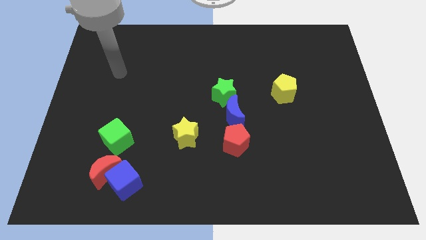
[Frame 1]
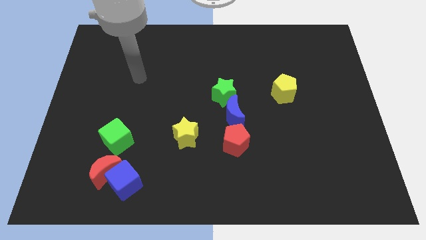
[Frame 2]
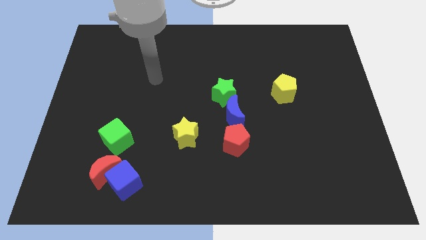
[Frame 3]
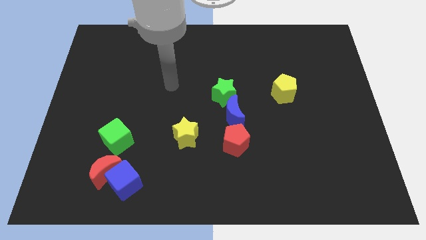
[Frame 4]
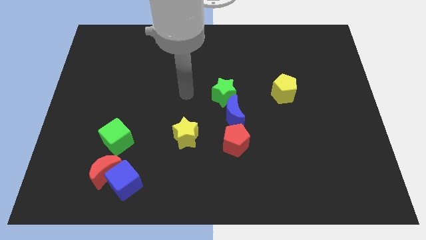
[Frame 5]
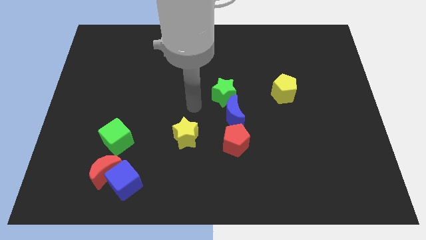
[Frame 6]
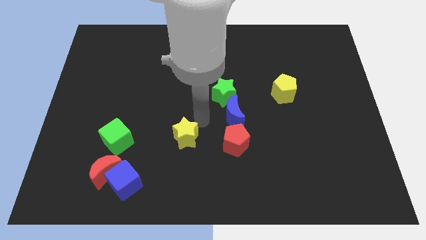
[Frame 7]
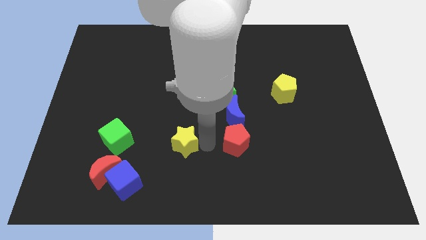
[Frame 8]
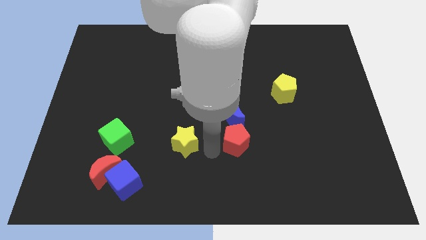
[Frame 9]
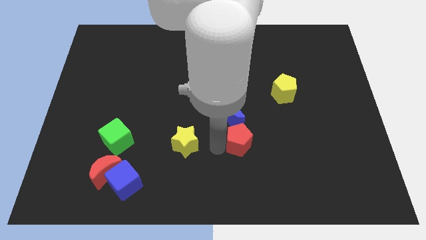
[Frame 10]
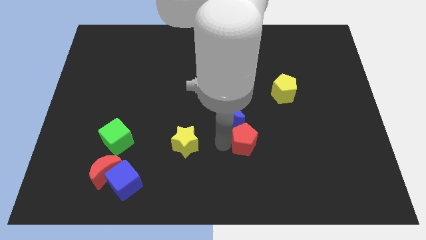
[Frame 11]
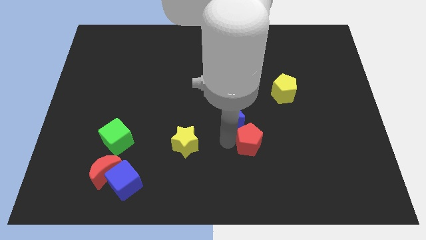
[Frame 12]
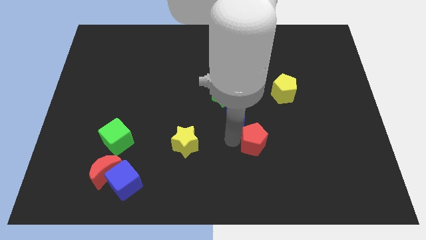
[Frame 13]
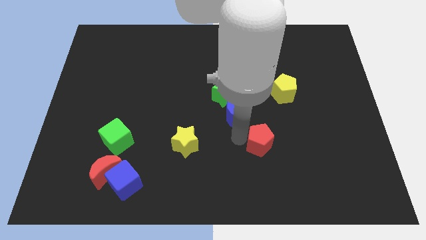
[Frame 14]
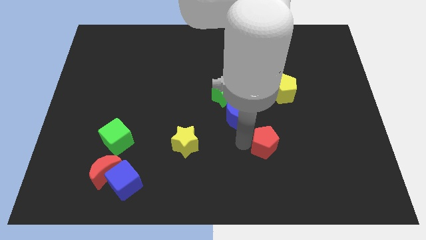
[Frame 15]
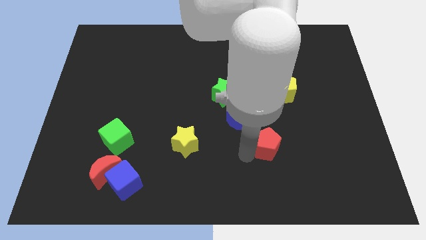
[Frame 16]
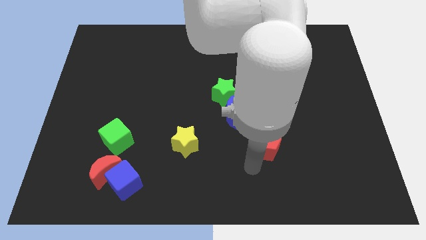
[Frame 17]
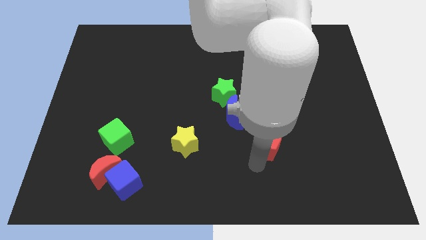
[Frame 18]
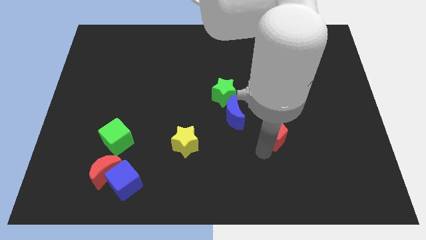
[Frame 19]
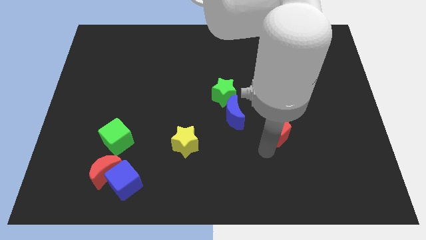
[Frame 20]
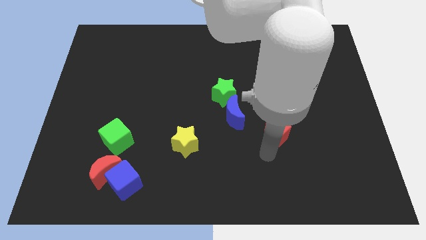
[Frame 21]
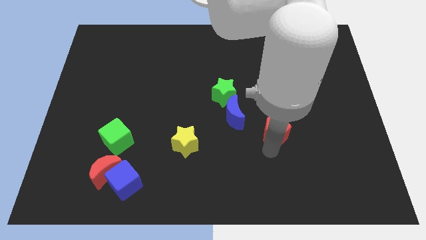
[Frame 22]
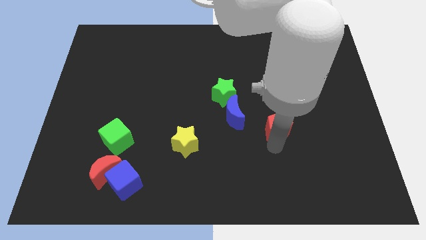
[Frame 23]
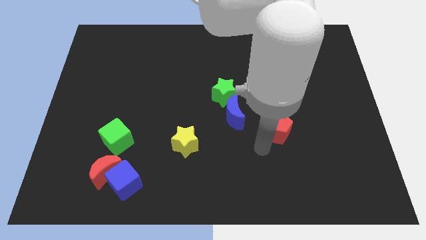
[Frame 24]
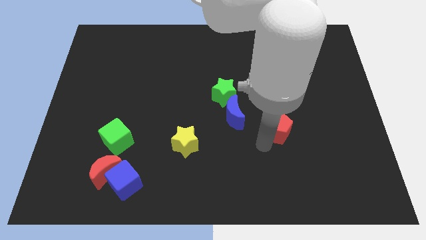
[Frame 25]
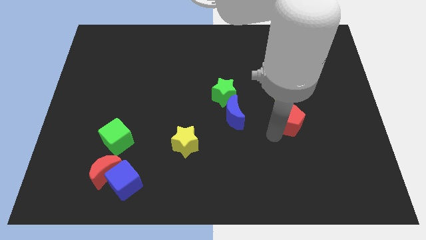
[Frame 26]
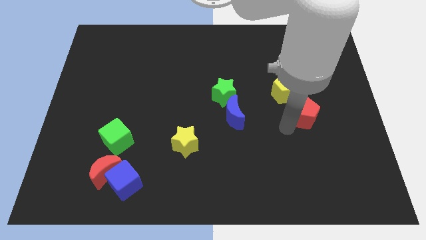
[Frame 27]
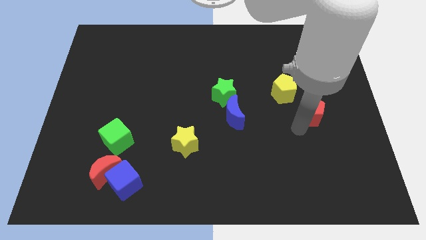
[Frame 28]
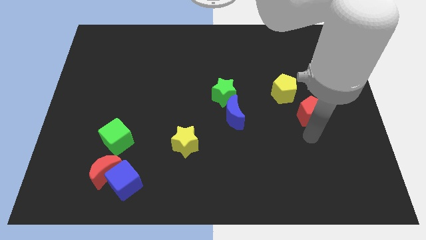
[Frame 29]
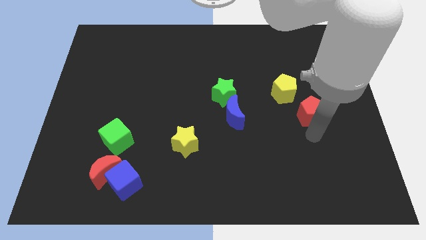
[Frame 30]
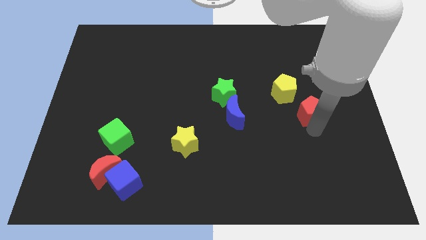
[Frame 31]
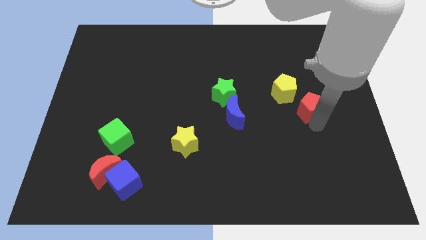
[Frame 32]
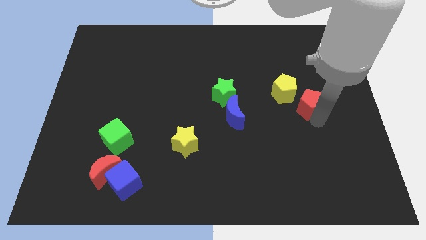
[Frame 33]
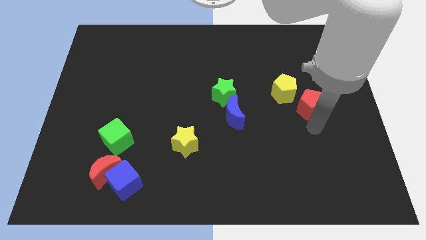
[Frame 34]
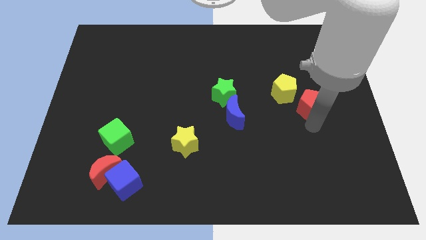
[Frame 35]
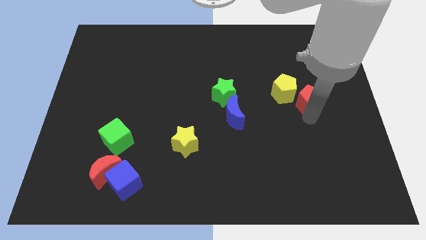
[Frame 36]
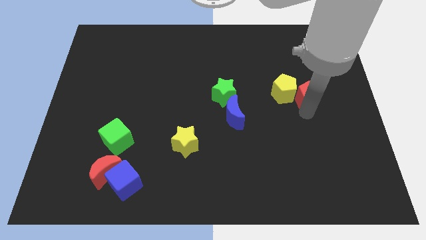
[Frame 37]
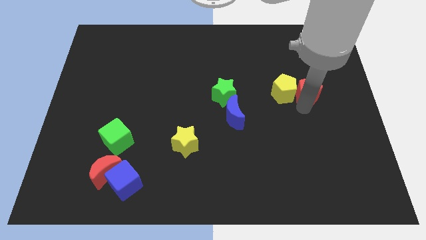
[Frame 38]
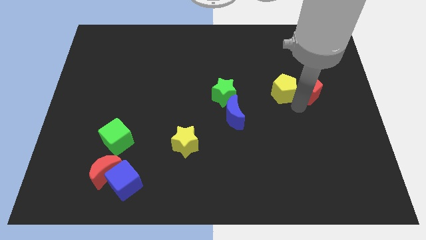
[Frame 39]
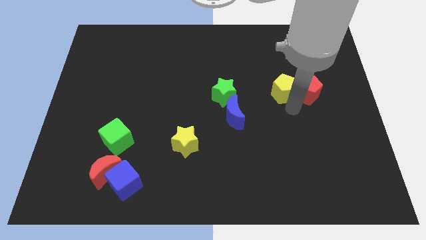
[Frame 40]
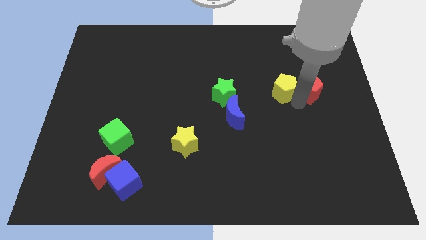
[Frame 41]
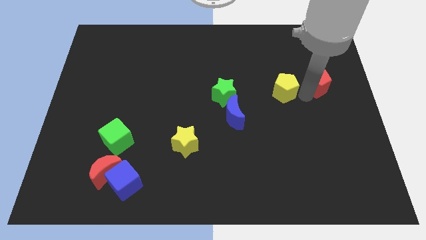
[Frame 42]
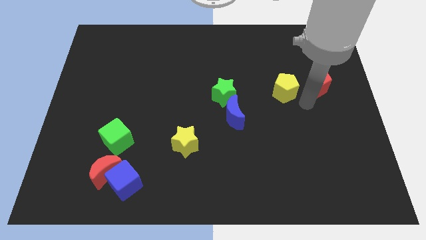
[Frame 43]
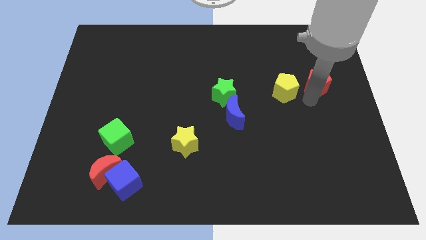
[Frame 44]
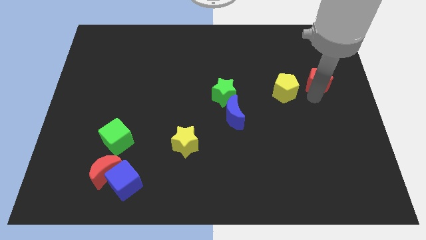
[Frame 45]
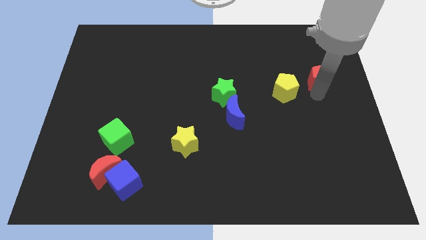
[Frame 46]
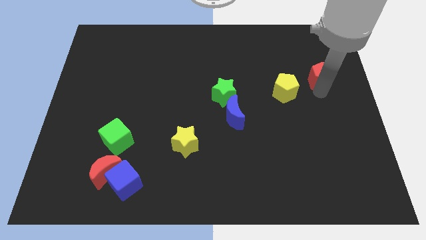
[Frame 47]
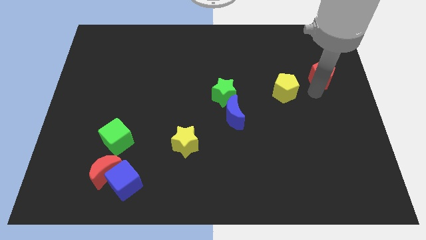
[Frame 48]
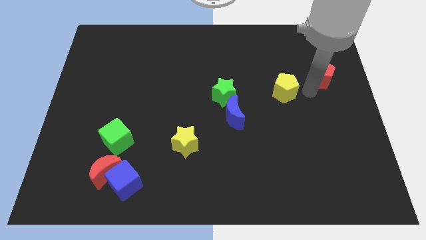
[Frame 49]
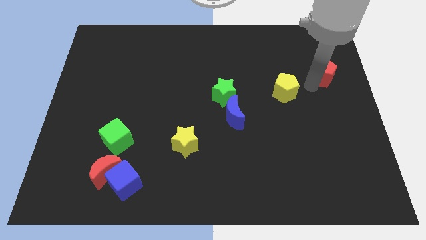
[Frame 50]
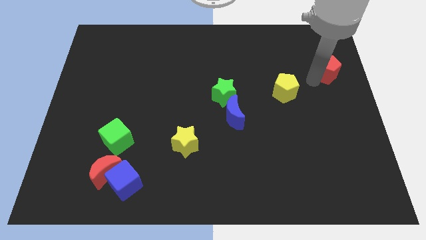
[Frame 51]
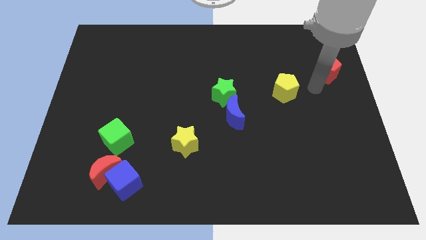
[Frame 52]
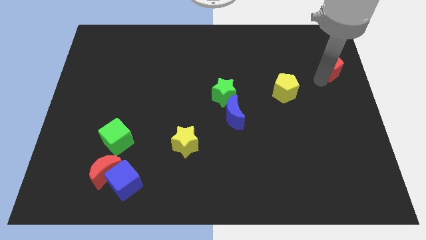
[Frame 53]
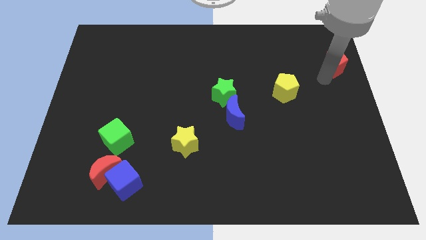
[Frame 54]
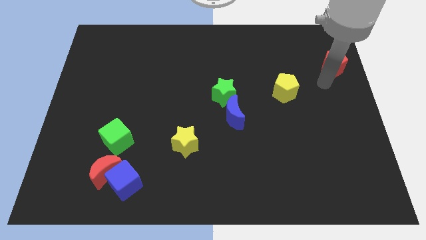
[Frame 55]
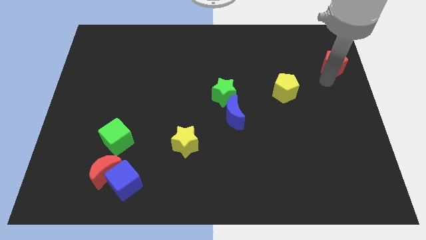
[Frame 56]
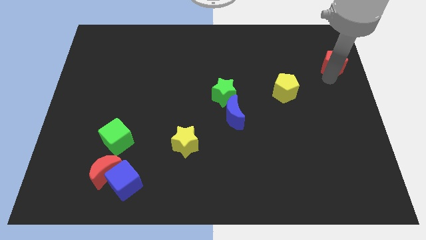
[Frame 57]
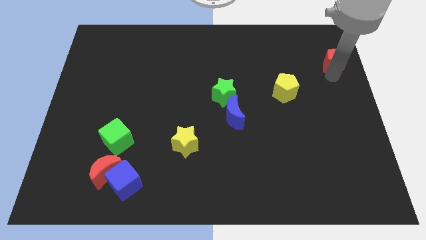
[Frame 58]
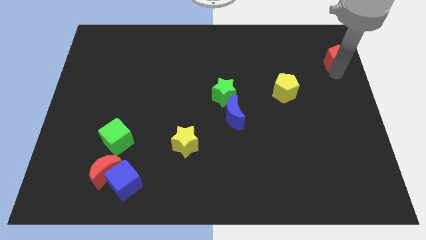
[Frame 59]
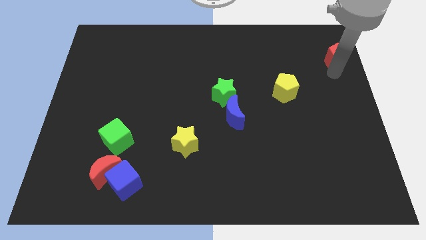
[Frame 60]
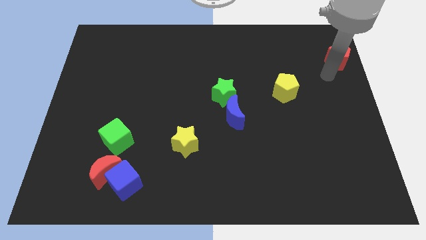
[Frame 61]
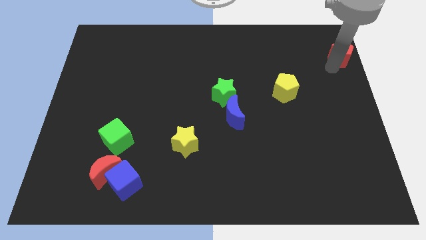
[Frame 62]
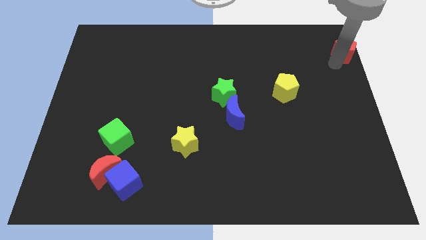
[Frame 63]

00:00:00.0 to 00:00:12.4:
push the red pentagon to the top right of the board
